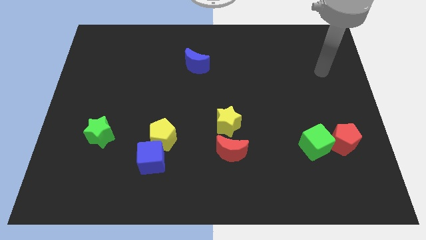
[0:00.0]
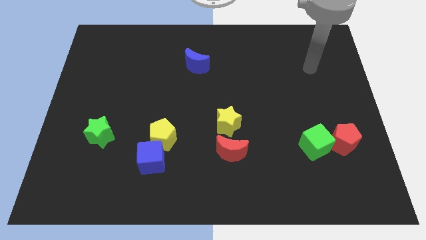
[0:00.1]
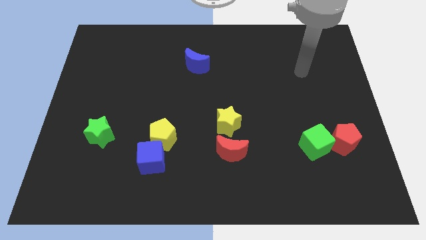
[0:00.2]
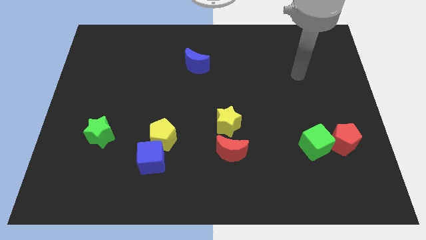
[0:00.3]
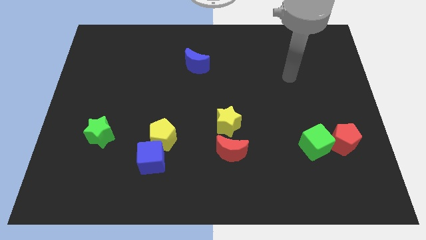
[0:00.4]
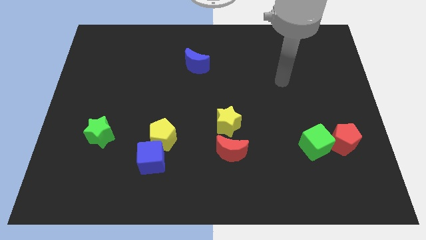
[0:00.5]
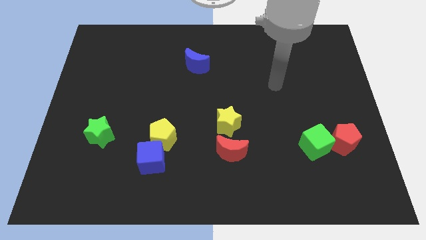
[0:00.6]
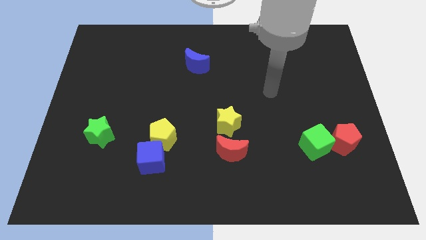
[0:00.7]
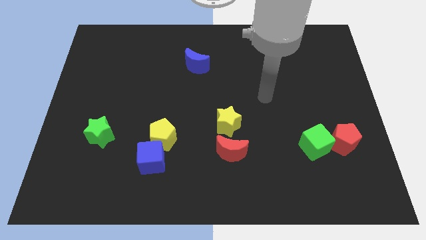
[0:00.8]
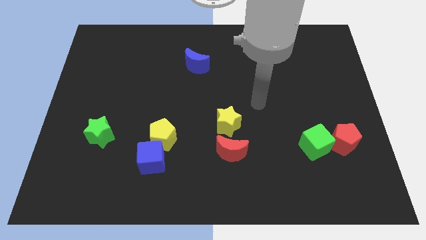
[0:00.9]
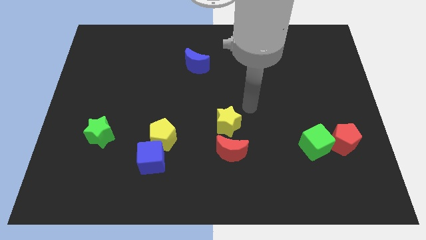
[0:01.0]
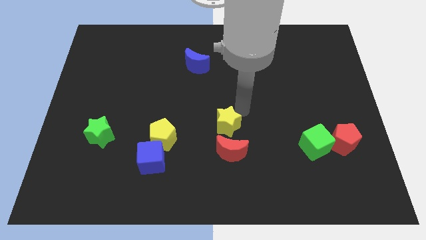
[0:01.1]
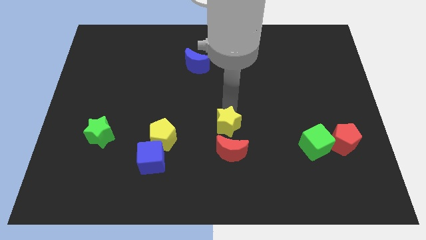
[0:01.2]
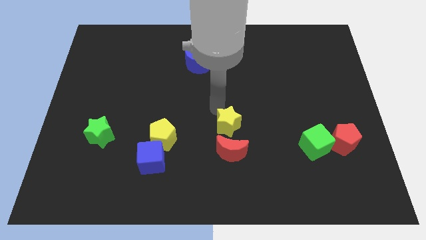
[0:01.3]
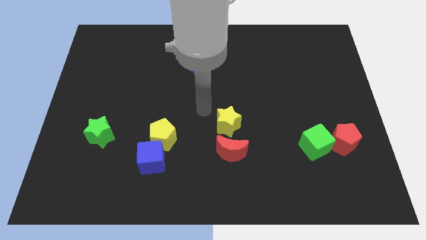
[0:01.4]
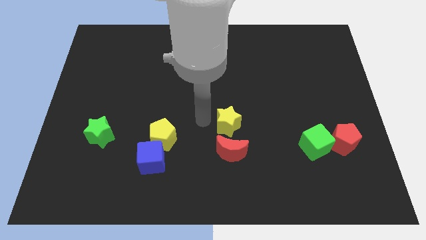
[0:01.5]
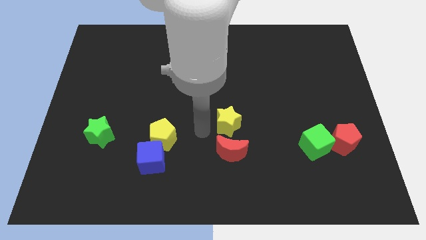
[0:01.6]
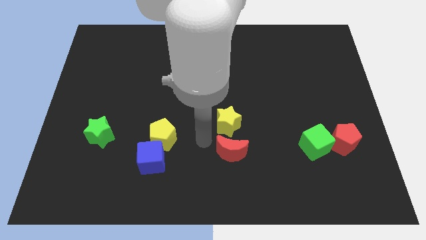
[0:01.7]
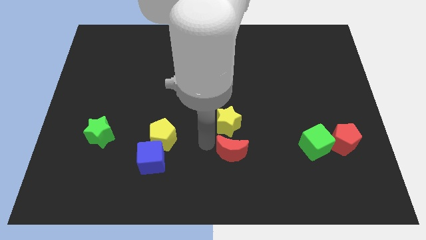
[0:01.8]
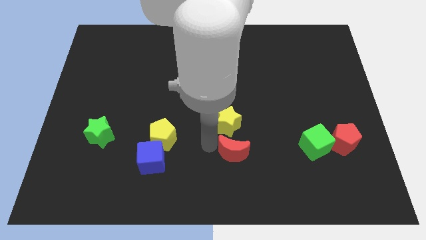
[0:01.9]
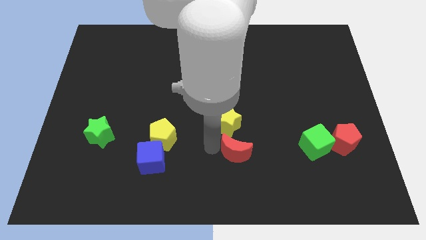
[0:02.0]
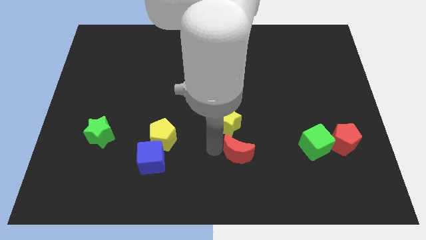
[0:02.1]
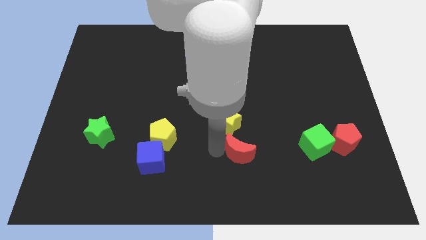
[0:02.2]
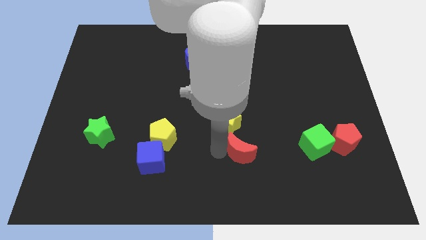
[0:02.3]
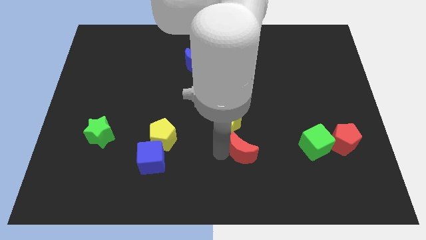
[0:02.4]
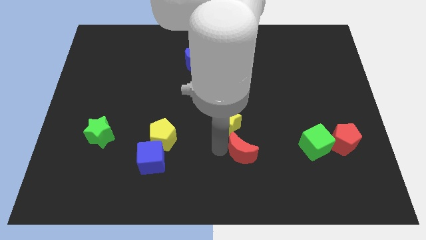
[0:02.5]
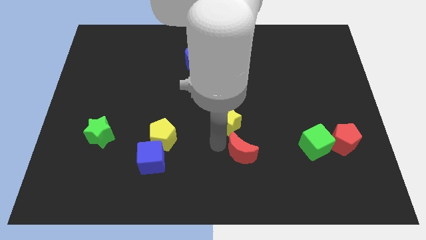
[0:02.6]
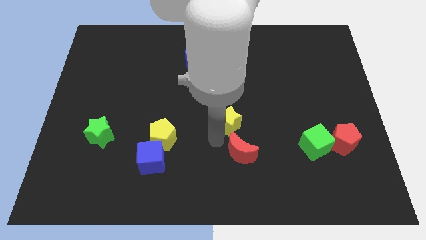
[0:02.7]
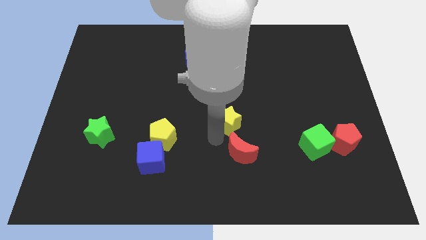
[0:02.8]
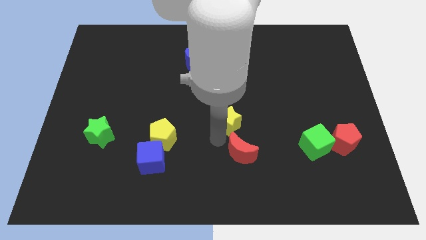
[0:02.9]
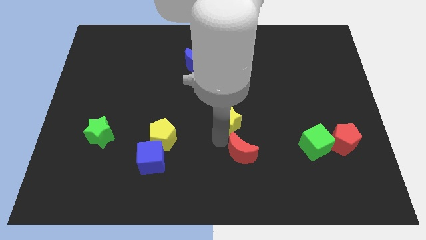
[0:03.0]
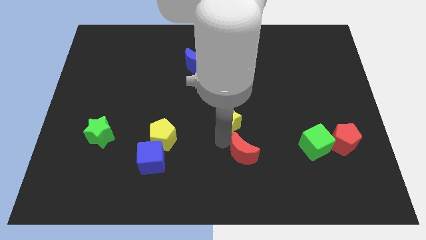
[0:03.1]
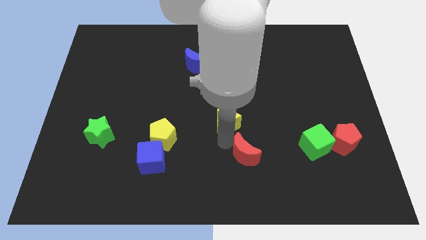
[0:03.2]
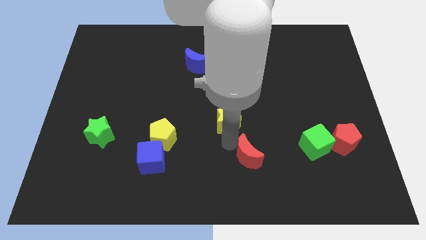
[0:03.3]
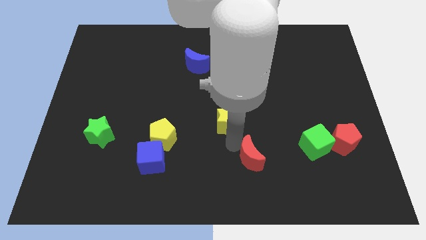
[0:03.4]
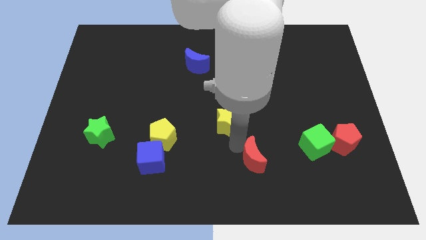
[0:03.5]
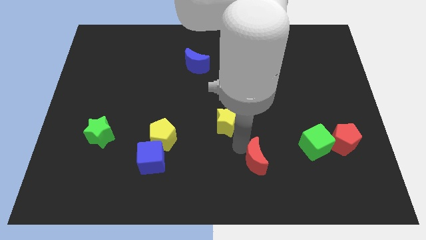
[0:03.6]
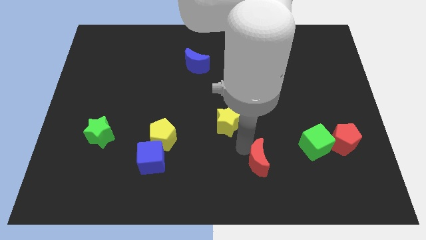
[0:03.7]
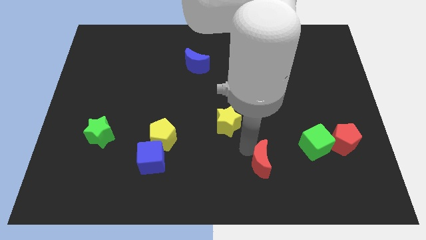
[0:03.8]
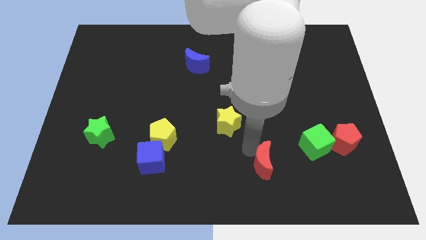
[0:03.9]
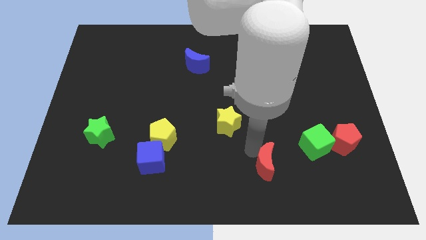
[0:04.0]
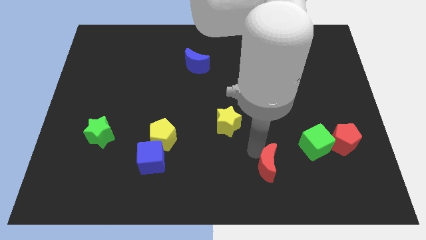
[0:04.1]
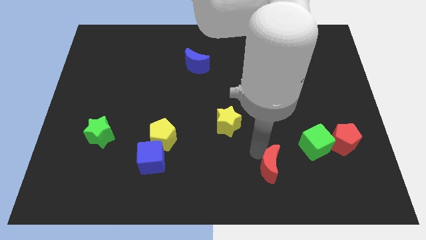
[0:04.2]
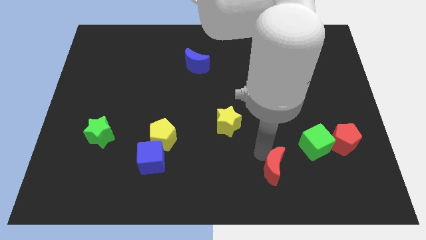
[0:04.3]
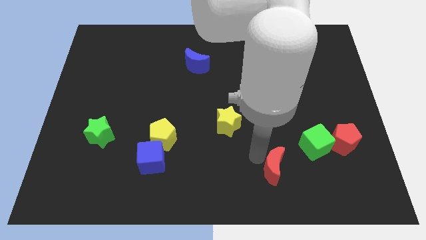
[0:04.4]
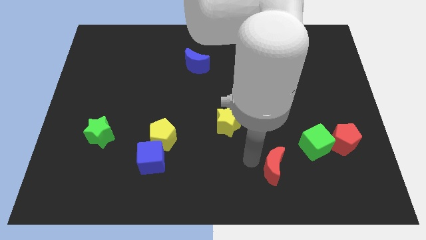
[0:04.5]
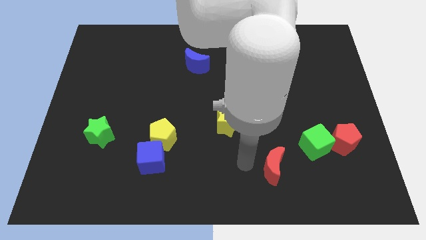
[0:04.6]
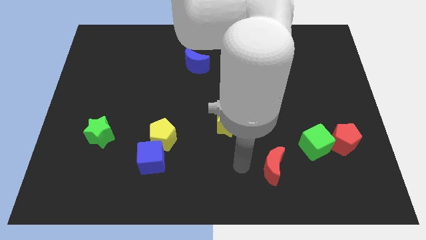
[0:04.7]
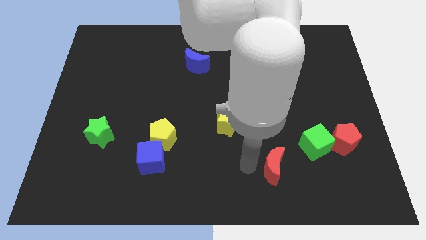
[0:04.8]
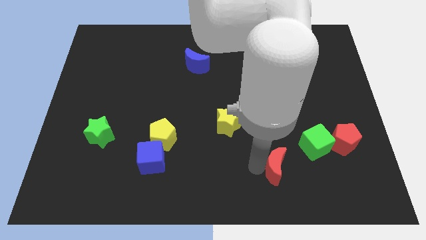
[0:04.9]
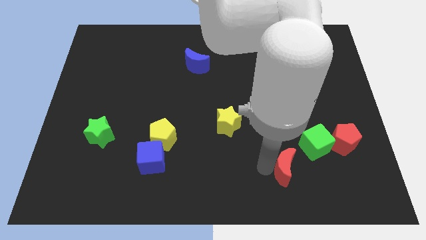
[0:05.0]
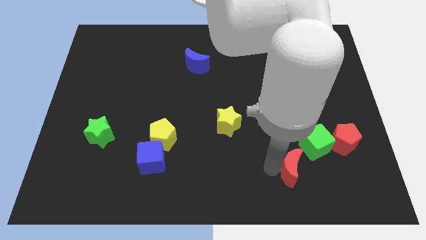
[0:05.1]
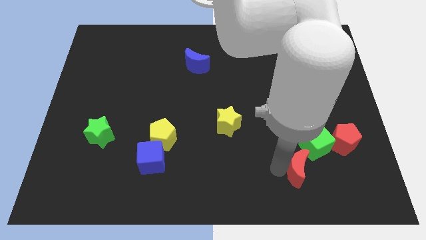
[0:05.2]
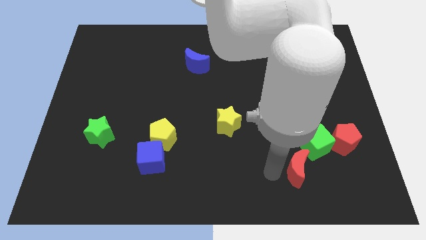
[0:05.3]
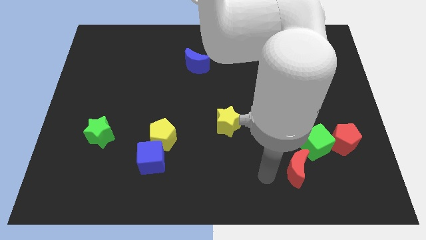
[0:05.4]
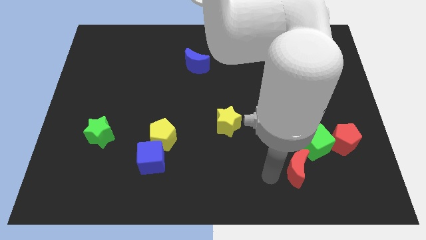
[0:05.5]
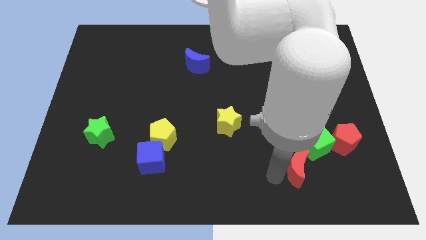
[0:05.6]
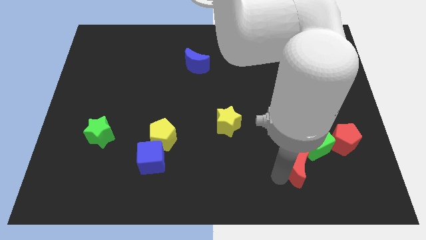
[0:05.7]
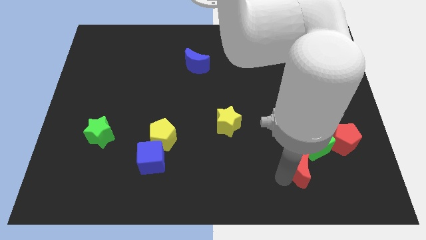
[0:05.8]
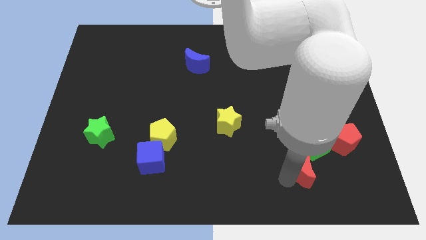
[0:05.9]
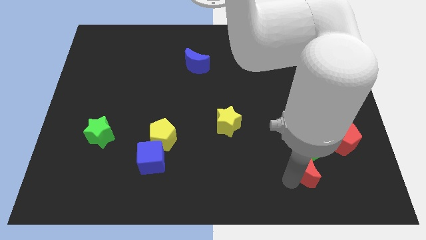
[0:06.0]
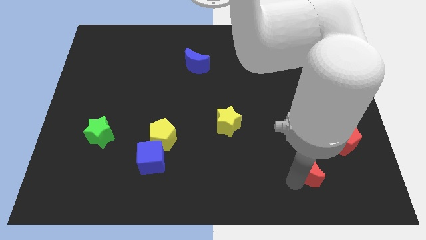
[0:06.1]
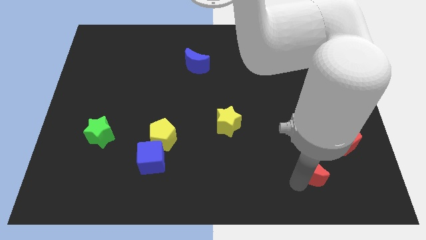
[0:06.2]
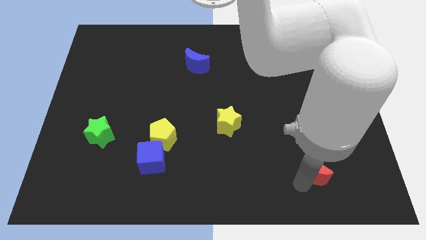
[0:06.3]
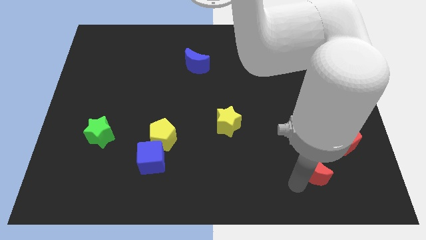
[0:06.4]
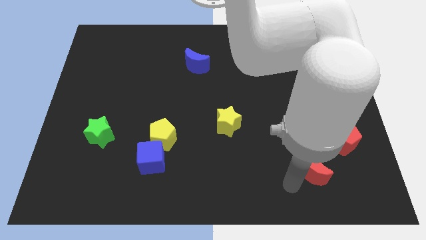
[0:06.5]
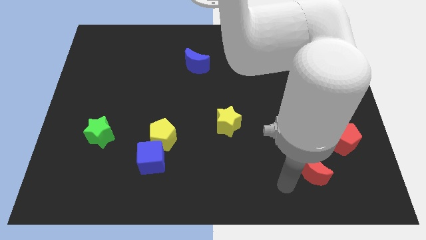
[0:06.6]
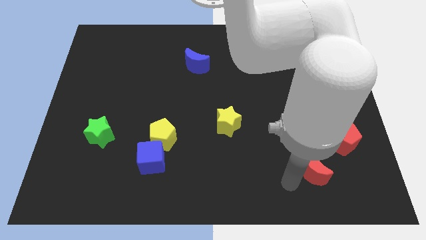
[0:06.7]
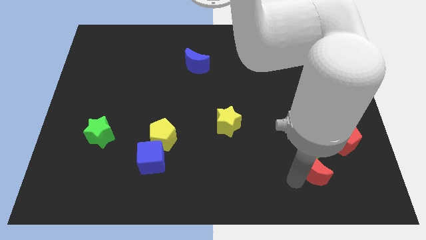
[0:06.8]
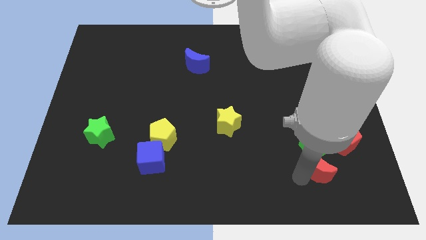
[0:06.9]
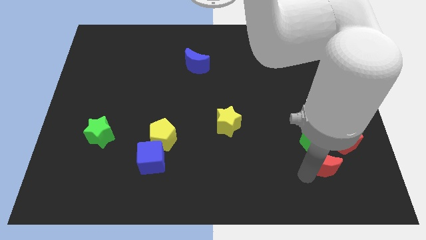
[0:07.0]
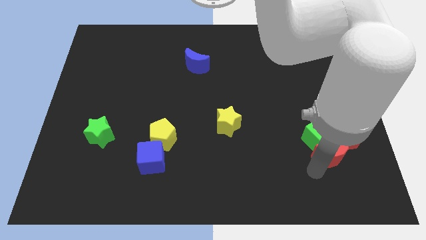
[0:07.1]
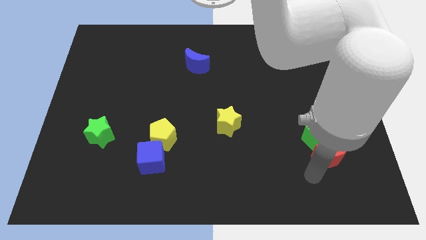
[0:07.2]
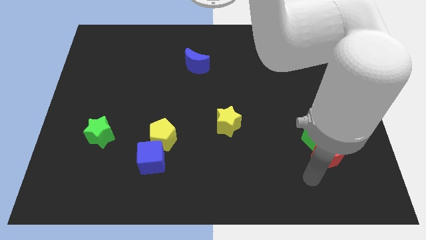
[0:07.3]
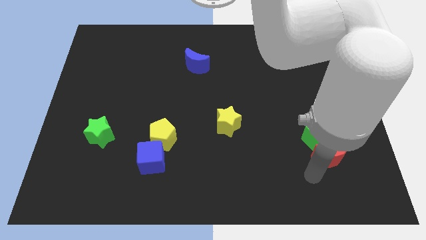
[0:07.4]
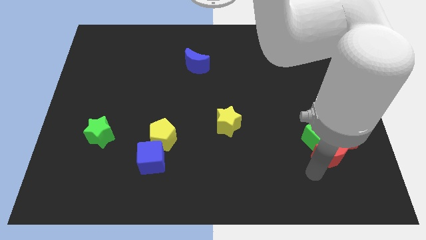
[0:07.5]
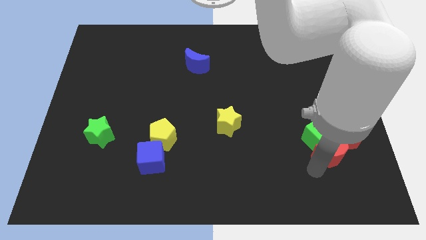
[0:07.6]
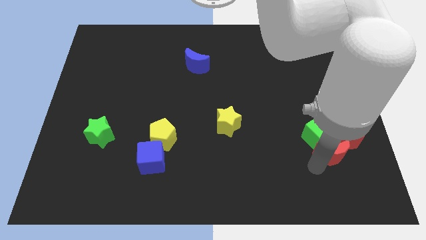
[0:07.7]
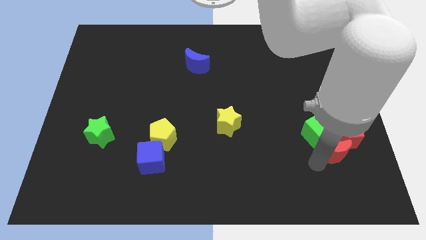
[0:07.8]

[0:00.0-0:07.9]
move the red moon to the red pentagon
